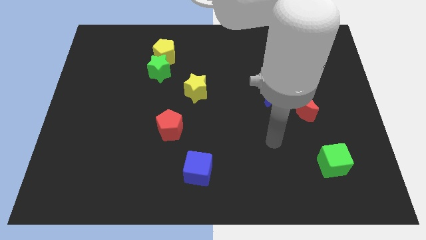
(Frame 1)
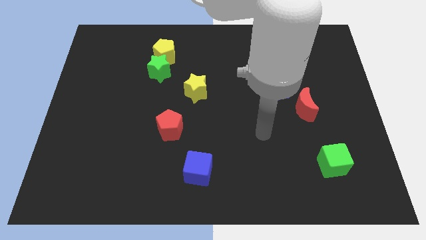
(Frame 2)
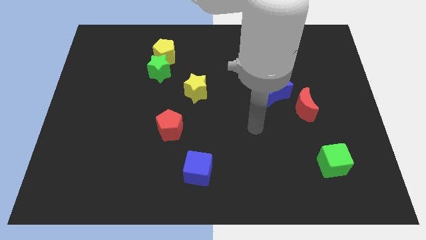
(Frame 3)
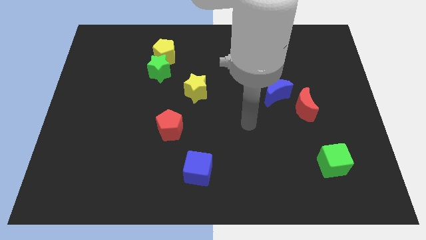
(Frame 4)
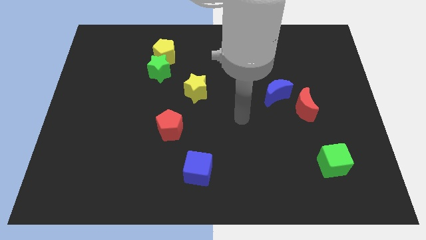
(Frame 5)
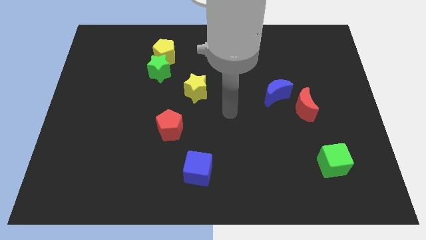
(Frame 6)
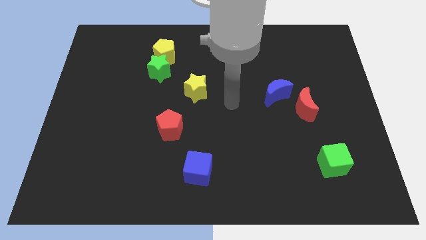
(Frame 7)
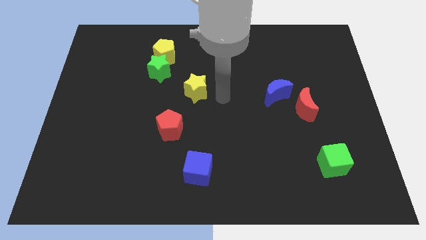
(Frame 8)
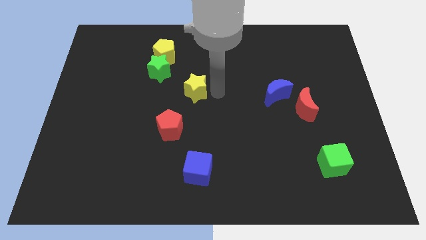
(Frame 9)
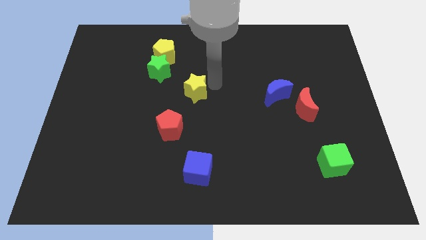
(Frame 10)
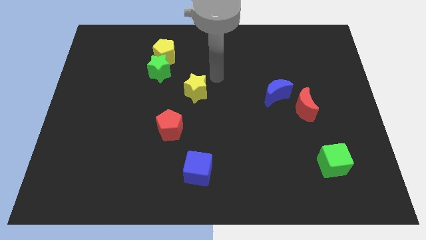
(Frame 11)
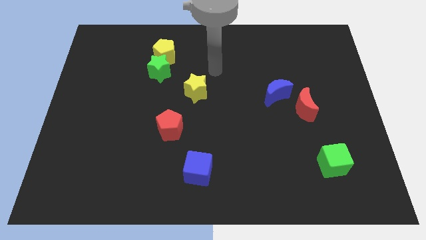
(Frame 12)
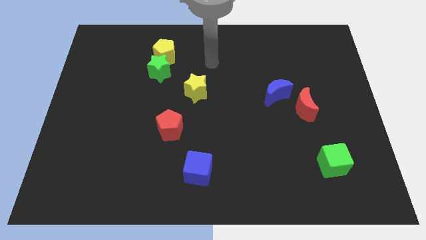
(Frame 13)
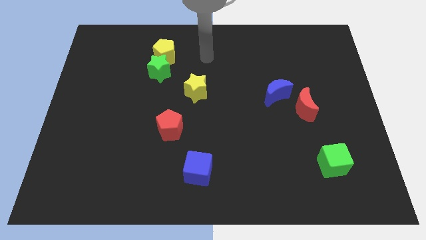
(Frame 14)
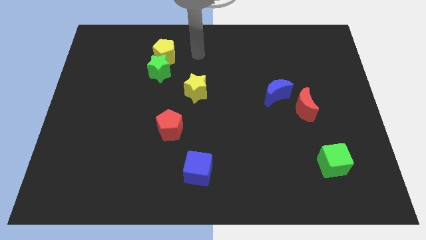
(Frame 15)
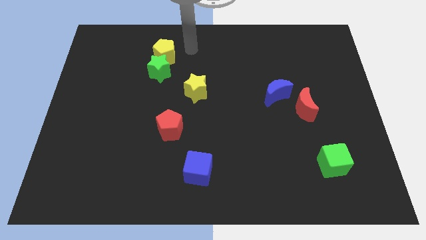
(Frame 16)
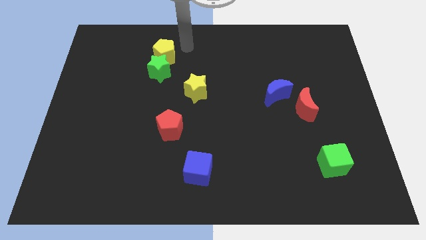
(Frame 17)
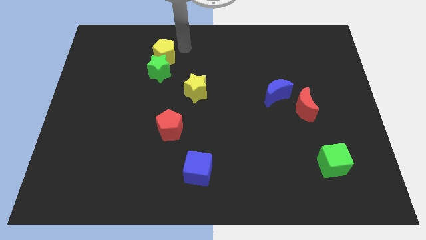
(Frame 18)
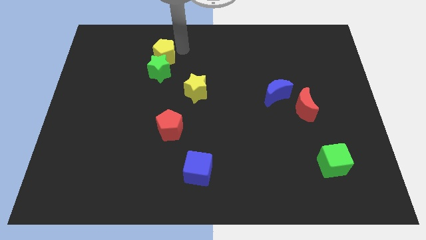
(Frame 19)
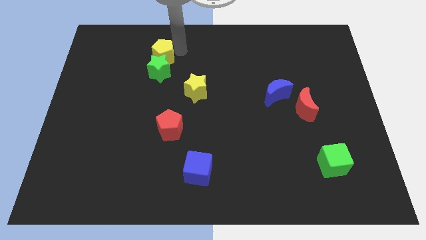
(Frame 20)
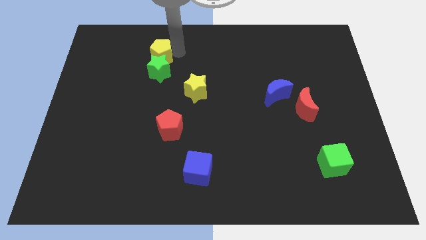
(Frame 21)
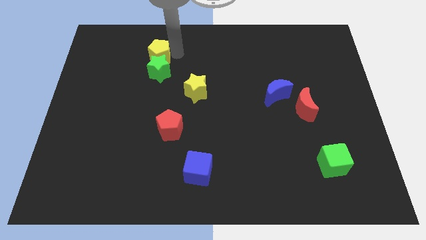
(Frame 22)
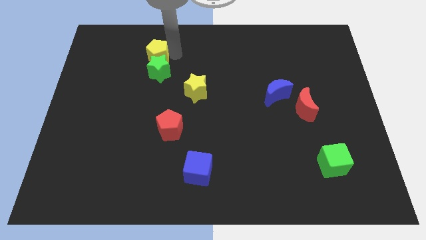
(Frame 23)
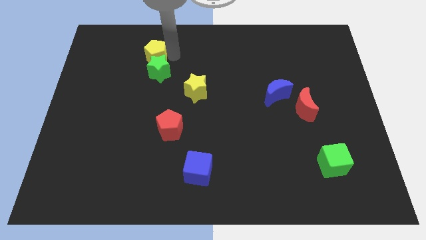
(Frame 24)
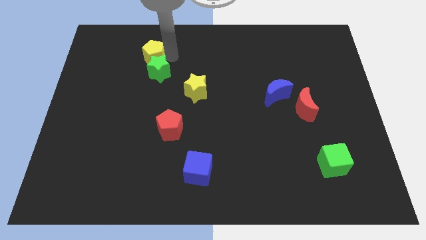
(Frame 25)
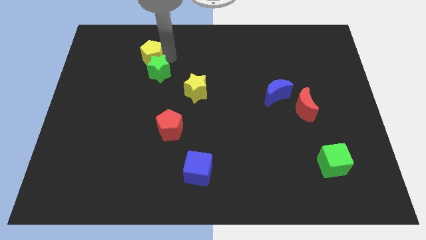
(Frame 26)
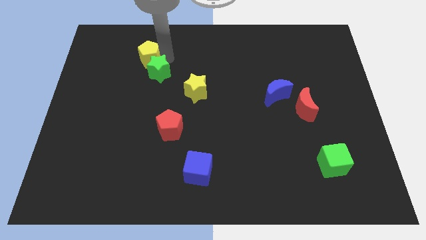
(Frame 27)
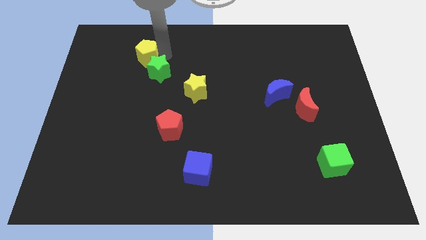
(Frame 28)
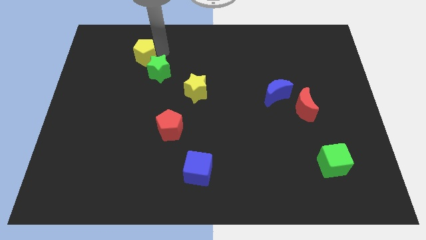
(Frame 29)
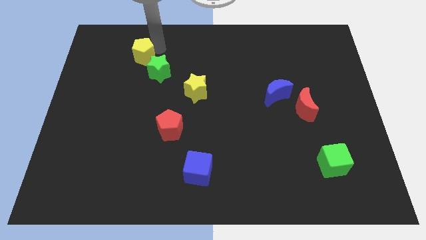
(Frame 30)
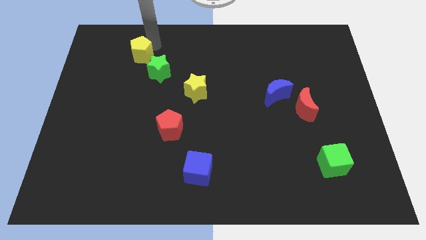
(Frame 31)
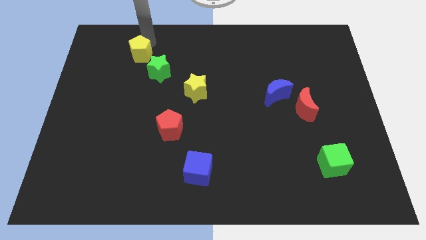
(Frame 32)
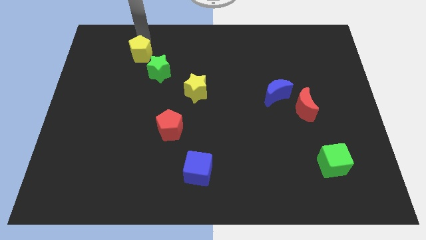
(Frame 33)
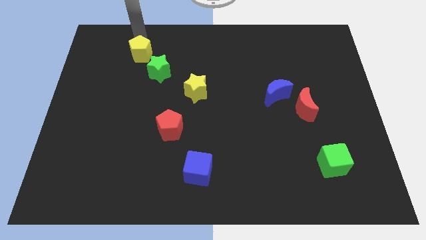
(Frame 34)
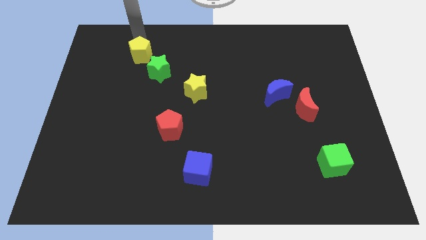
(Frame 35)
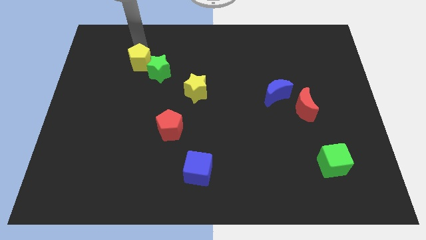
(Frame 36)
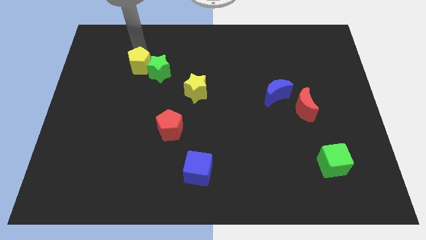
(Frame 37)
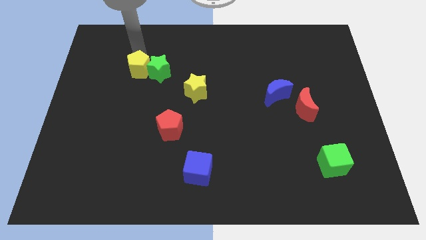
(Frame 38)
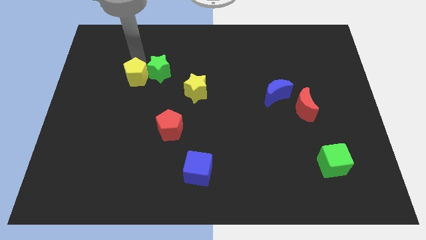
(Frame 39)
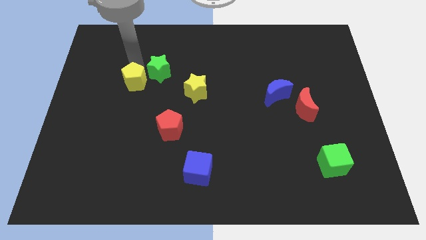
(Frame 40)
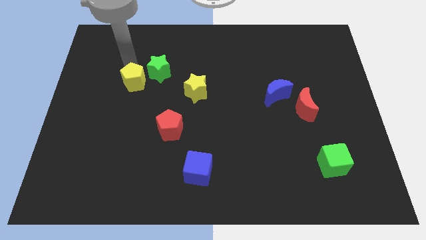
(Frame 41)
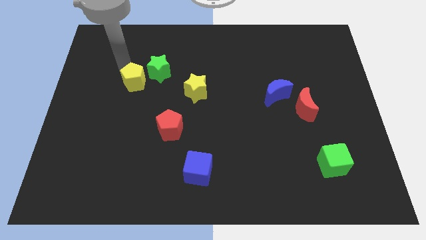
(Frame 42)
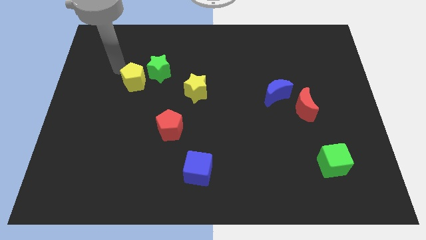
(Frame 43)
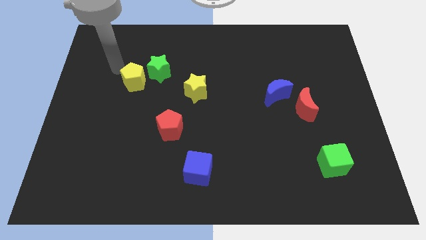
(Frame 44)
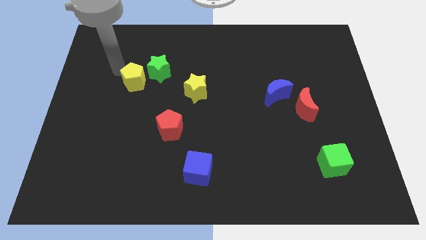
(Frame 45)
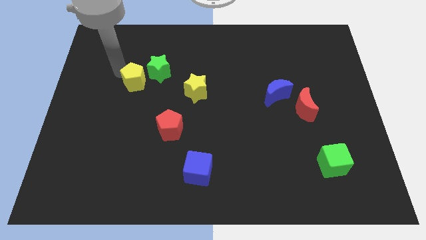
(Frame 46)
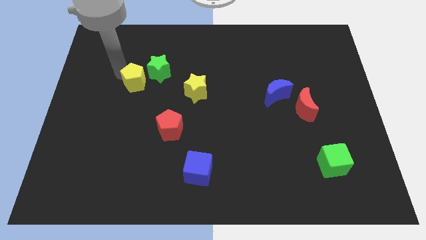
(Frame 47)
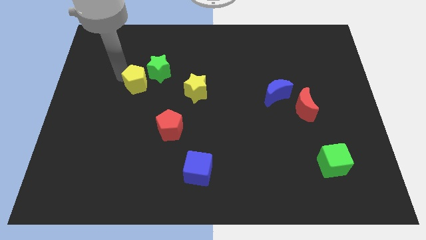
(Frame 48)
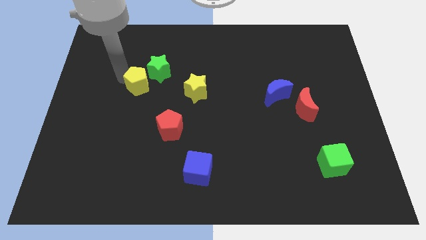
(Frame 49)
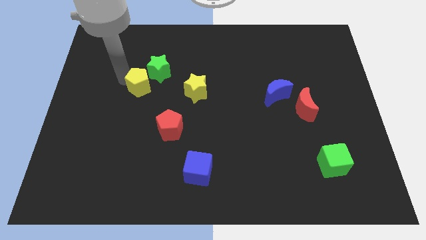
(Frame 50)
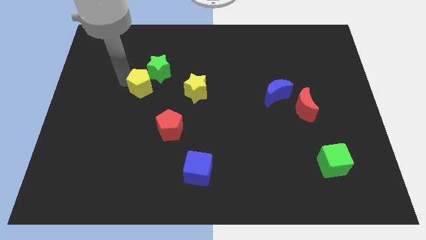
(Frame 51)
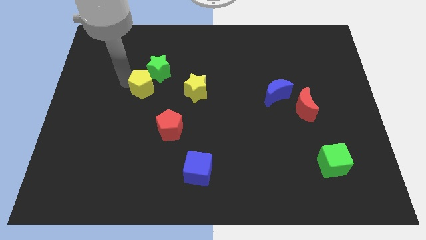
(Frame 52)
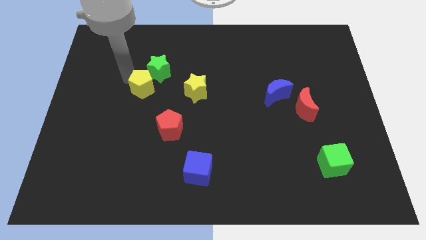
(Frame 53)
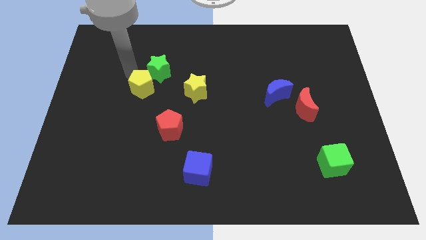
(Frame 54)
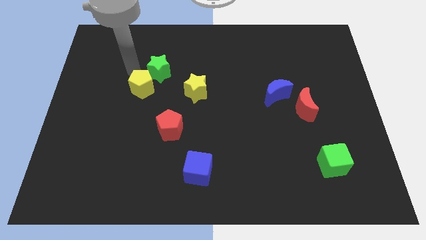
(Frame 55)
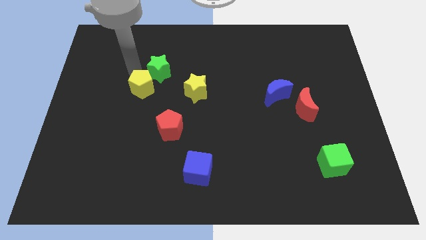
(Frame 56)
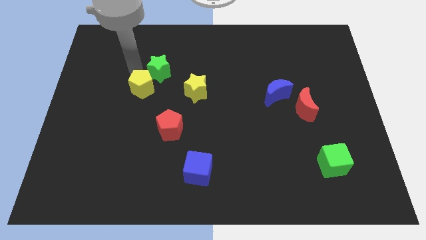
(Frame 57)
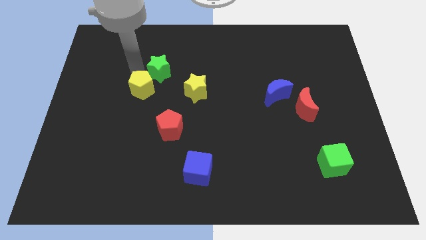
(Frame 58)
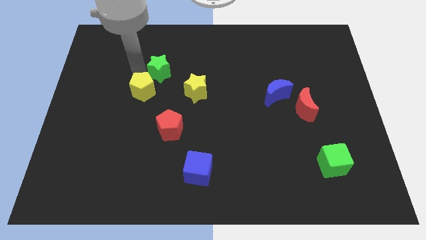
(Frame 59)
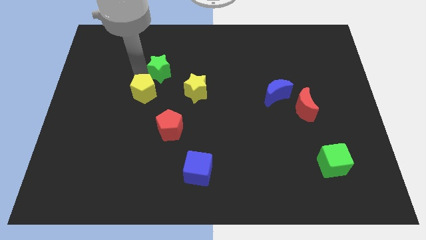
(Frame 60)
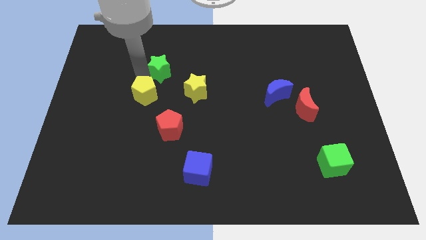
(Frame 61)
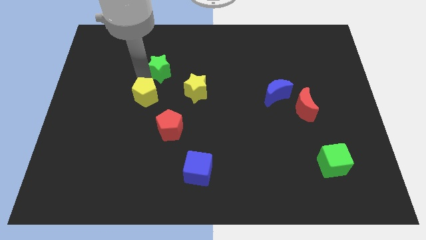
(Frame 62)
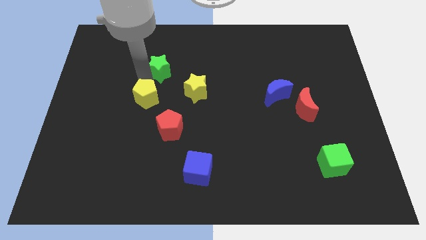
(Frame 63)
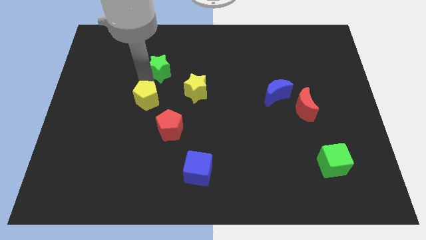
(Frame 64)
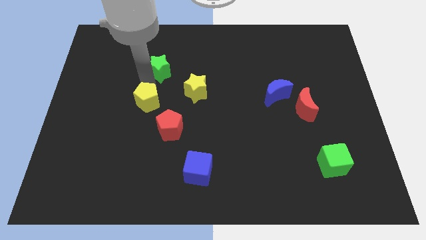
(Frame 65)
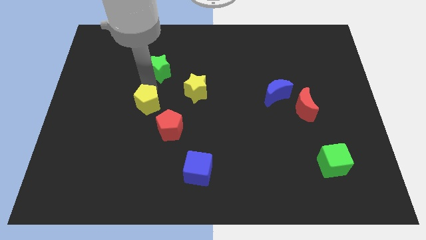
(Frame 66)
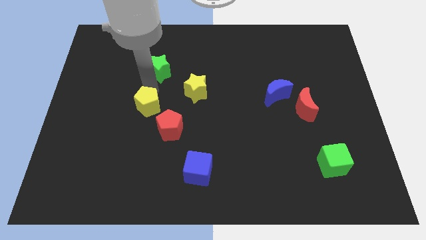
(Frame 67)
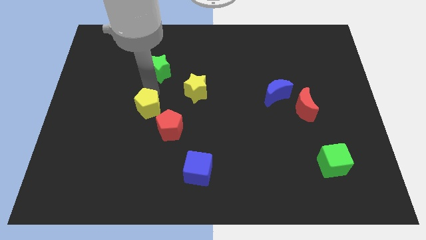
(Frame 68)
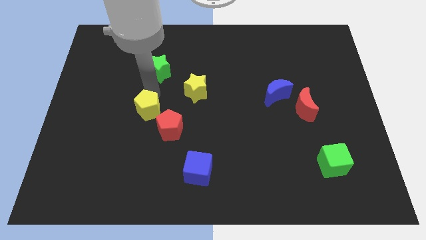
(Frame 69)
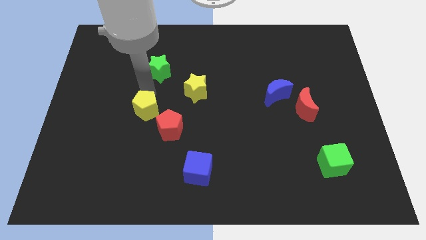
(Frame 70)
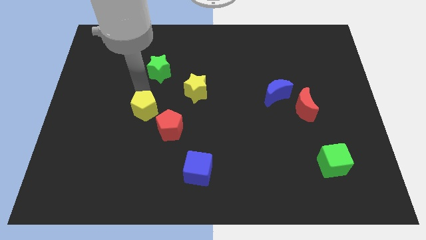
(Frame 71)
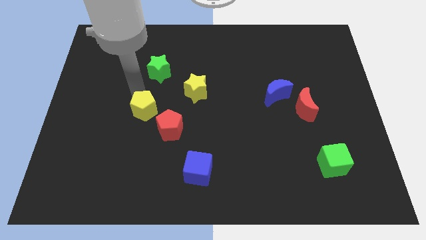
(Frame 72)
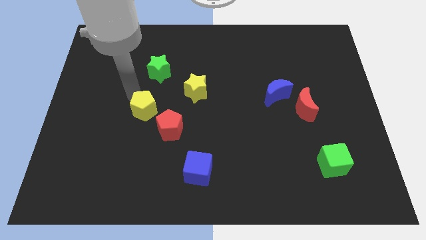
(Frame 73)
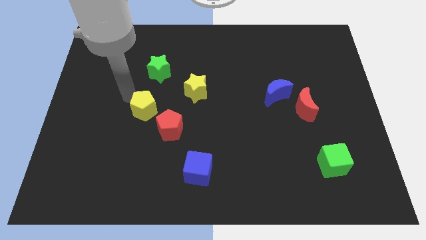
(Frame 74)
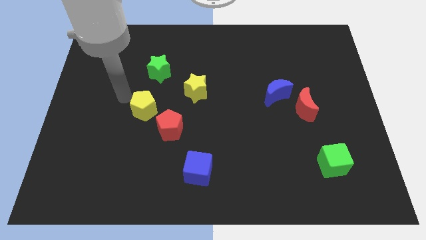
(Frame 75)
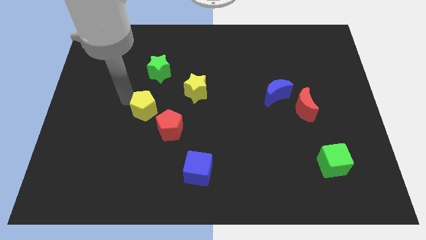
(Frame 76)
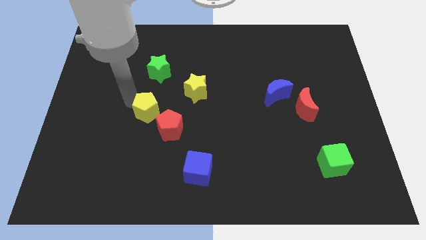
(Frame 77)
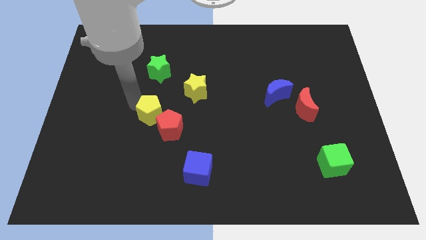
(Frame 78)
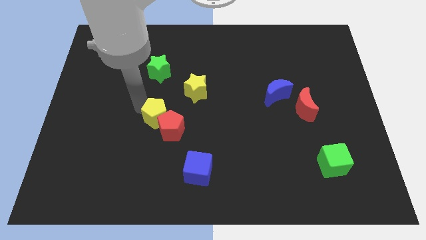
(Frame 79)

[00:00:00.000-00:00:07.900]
put the yellow pentagon towards the red pentagon

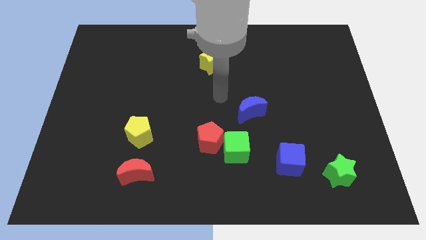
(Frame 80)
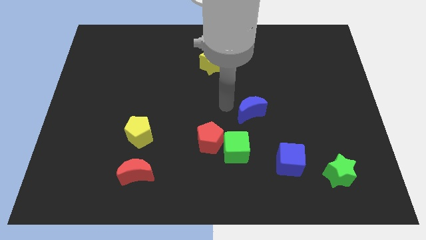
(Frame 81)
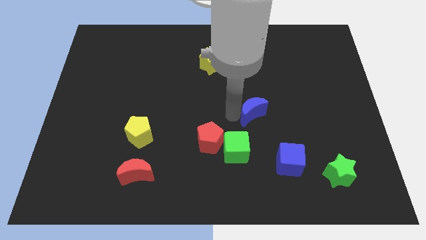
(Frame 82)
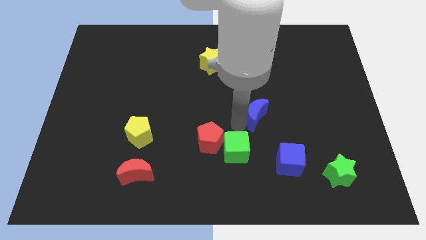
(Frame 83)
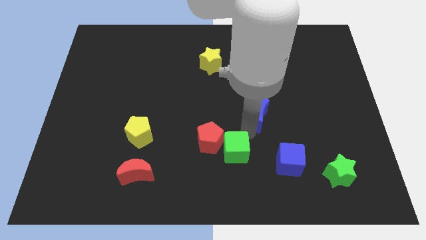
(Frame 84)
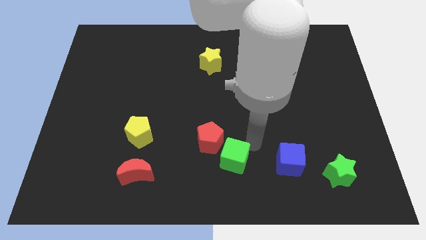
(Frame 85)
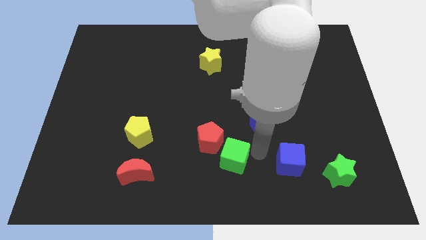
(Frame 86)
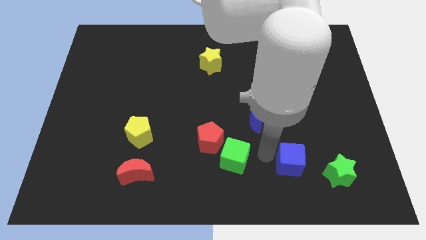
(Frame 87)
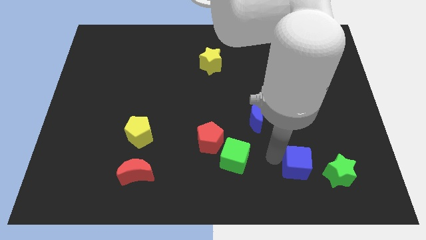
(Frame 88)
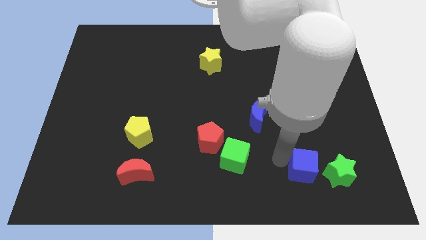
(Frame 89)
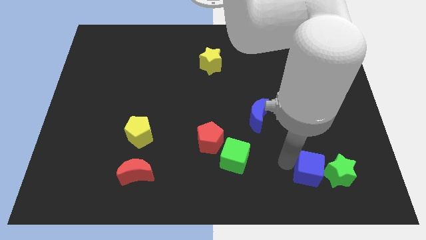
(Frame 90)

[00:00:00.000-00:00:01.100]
move the blue cube towards the green star
